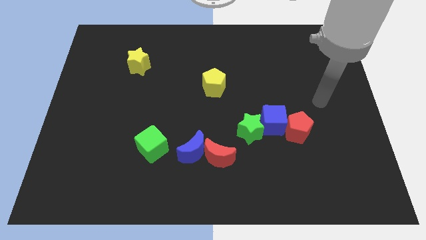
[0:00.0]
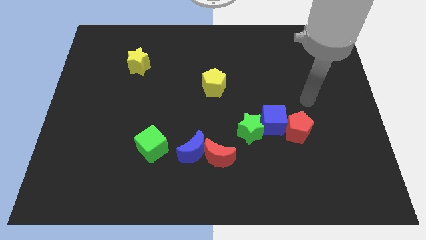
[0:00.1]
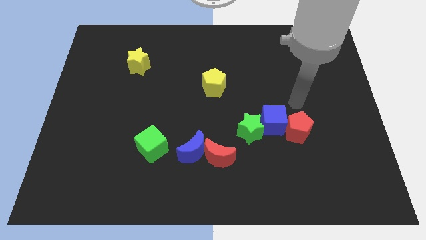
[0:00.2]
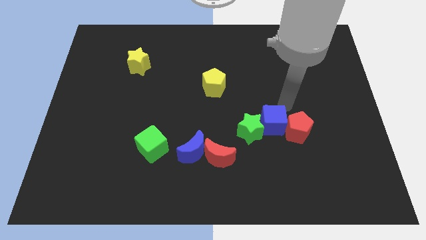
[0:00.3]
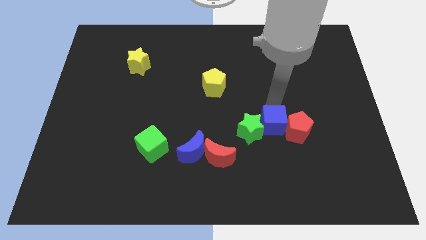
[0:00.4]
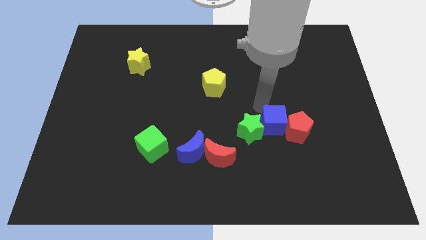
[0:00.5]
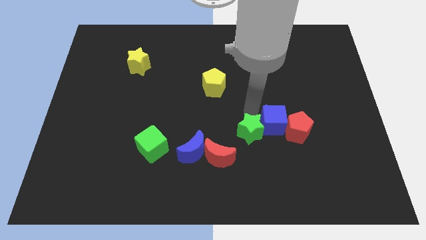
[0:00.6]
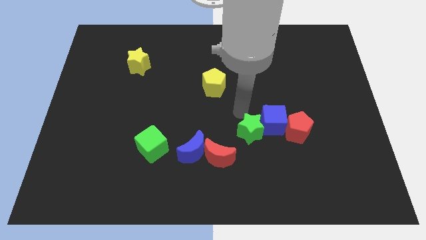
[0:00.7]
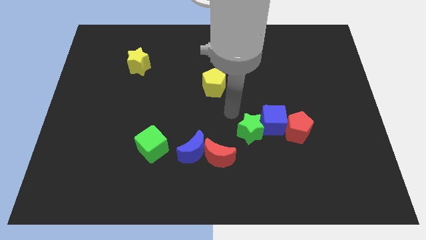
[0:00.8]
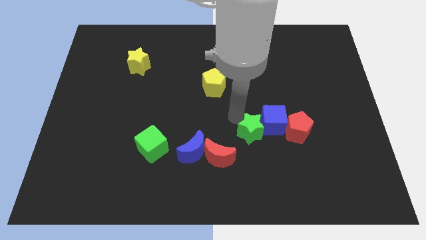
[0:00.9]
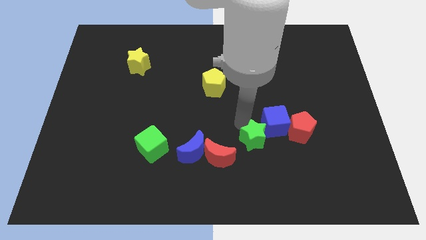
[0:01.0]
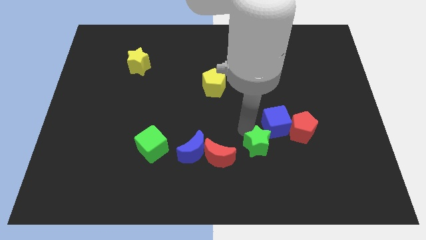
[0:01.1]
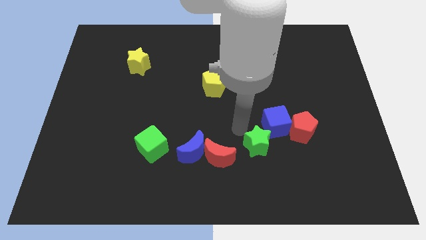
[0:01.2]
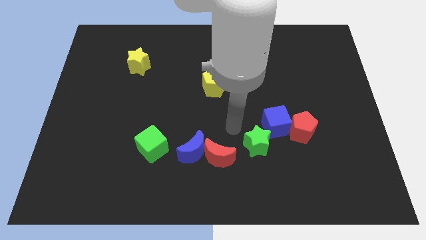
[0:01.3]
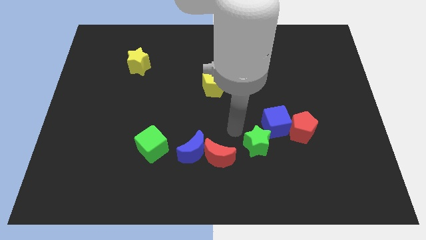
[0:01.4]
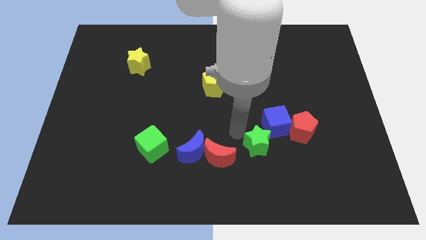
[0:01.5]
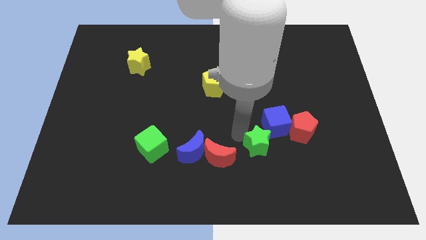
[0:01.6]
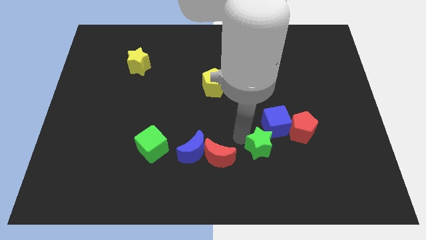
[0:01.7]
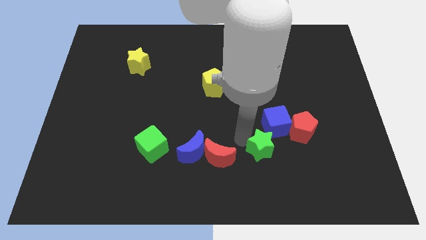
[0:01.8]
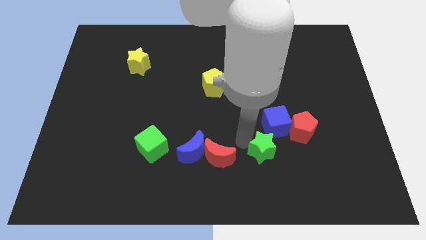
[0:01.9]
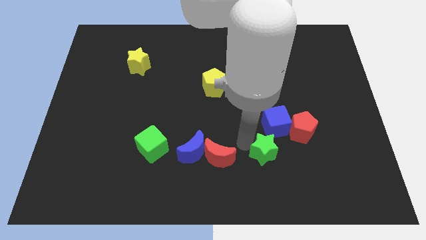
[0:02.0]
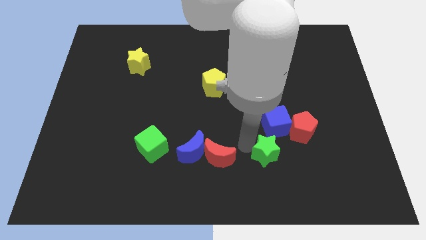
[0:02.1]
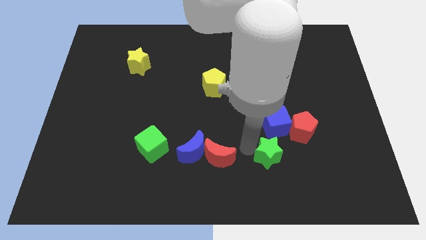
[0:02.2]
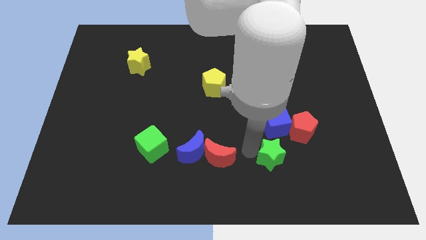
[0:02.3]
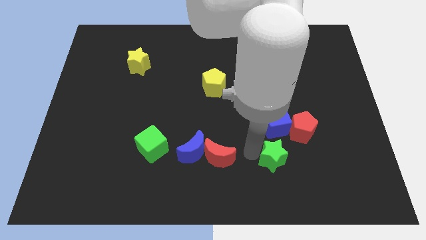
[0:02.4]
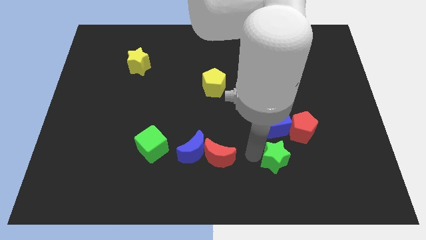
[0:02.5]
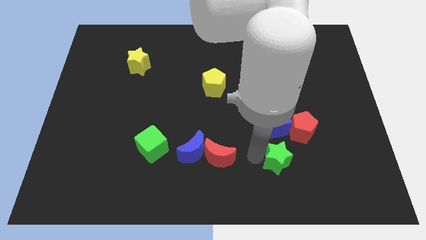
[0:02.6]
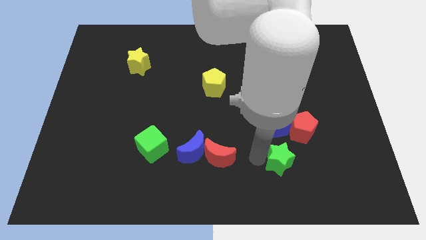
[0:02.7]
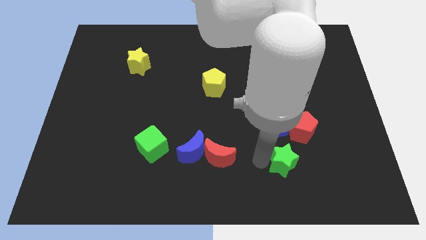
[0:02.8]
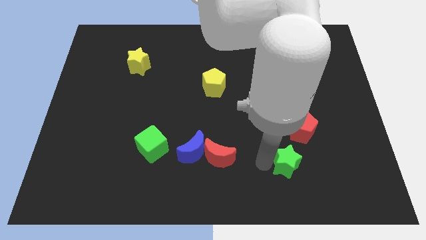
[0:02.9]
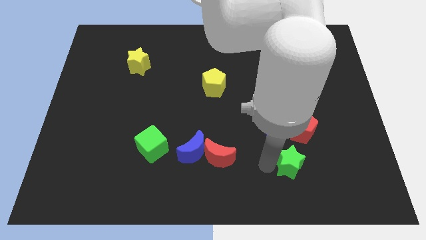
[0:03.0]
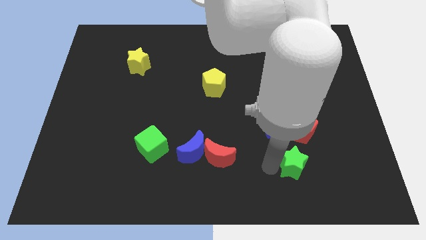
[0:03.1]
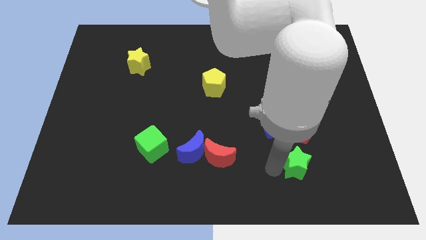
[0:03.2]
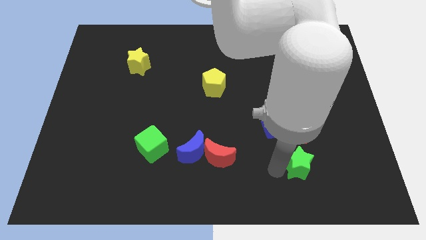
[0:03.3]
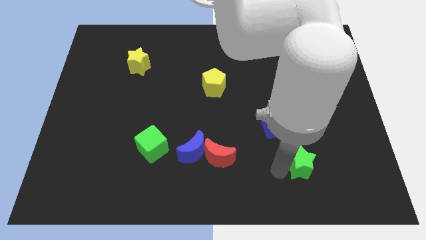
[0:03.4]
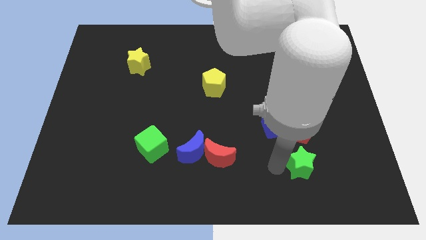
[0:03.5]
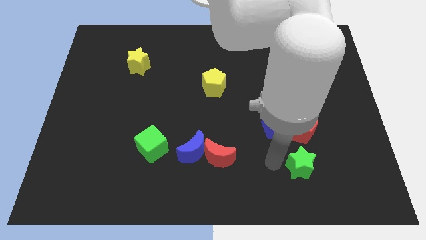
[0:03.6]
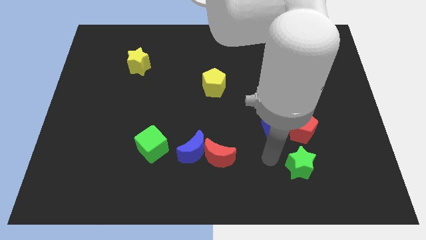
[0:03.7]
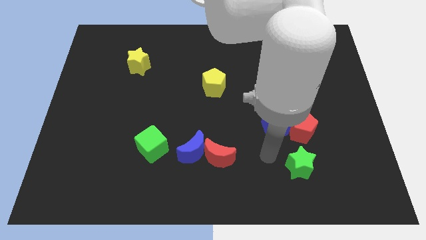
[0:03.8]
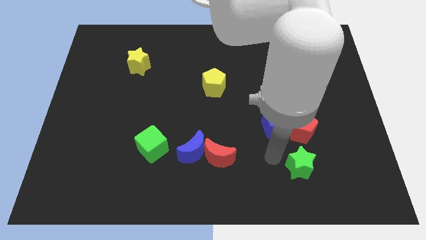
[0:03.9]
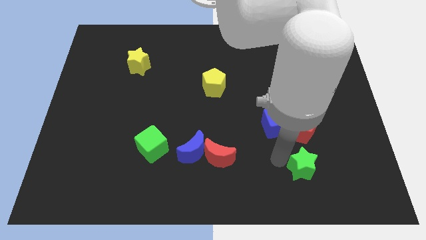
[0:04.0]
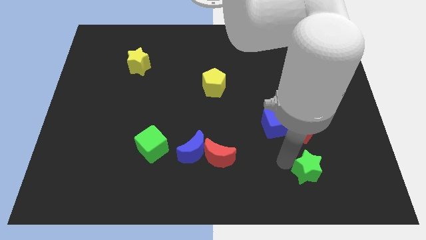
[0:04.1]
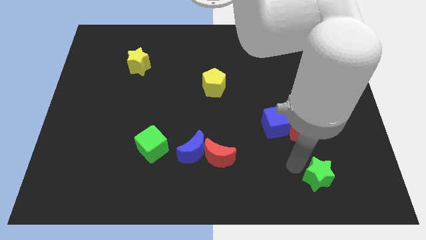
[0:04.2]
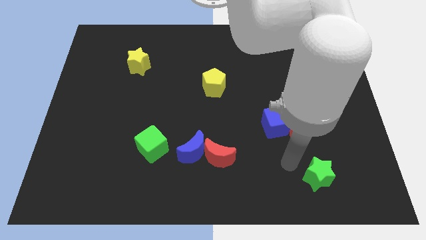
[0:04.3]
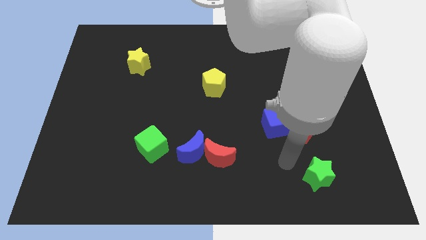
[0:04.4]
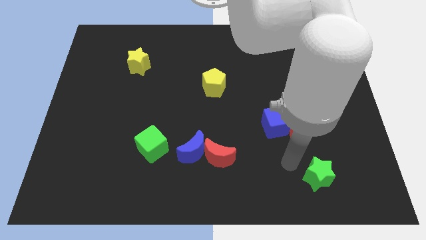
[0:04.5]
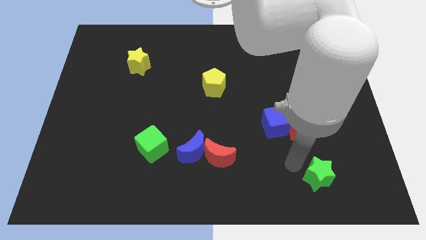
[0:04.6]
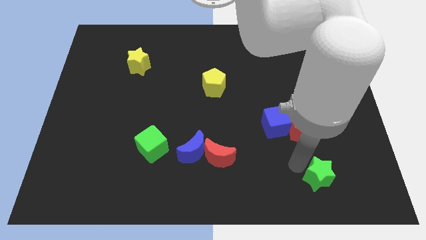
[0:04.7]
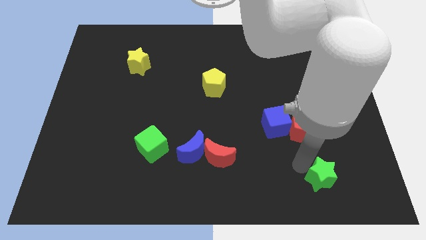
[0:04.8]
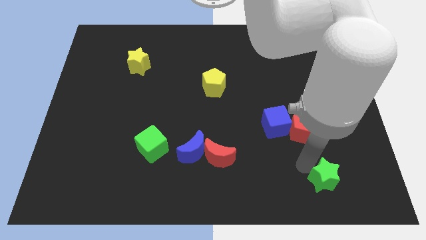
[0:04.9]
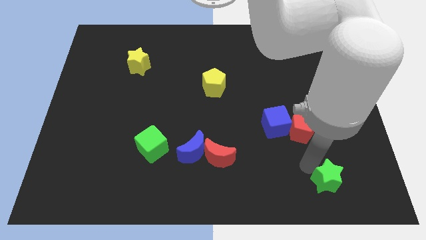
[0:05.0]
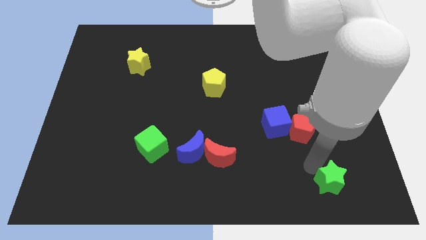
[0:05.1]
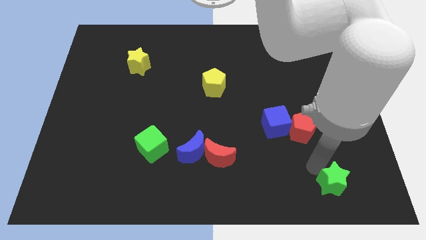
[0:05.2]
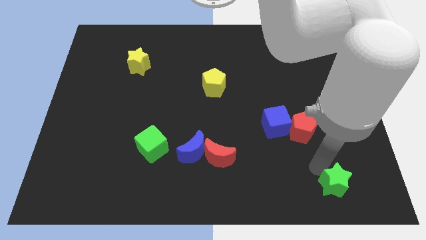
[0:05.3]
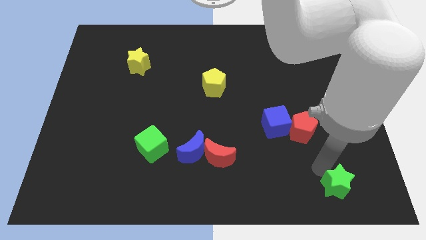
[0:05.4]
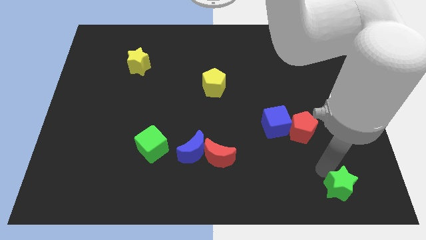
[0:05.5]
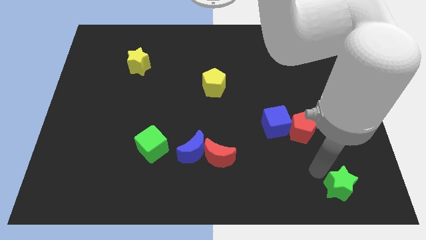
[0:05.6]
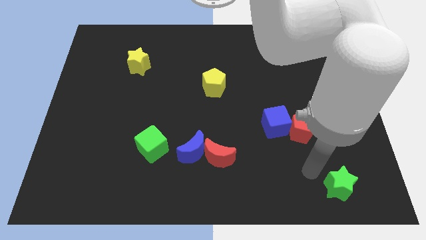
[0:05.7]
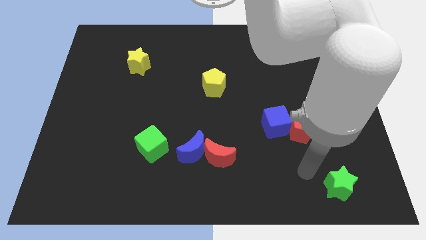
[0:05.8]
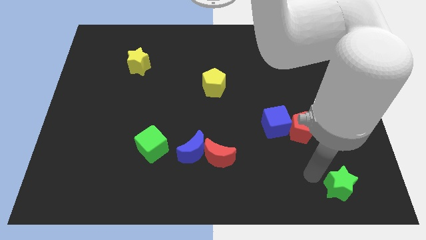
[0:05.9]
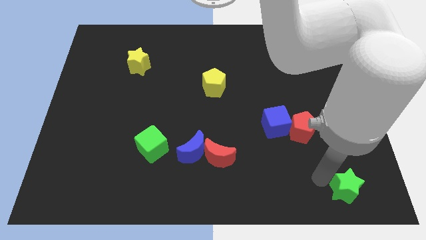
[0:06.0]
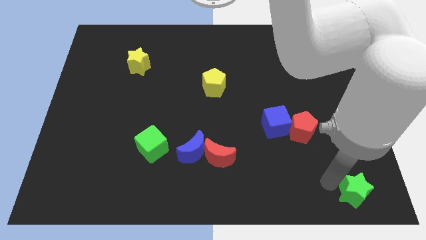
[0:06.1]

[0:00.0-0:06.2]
slide the green star to the bottom right
